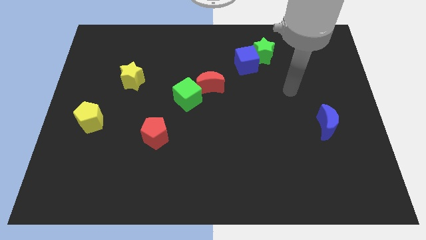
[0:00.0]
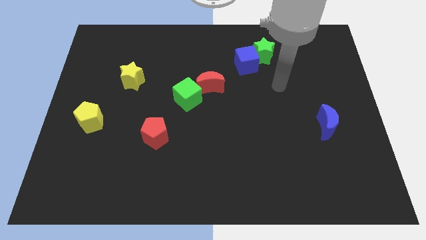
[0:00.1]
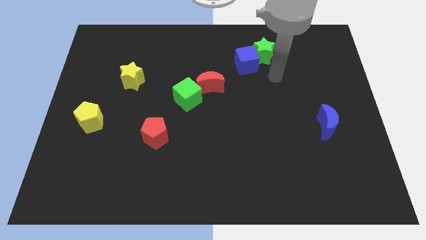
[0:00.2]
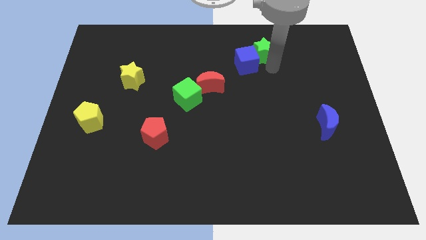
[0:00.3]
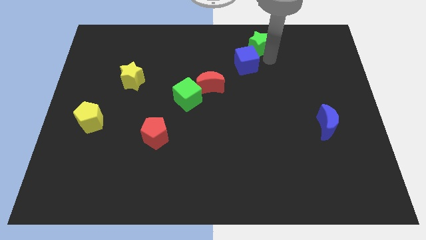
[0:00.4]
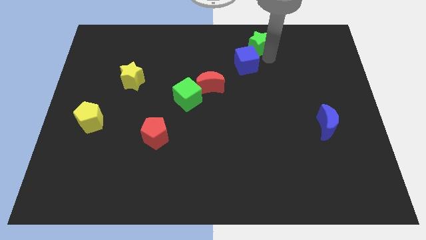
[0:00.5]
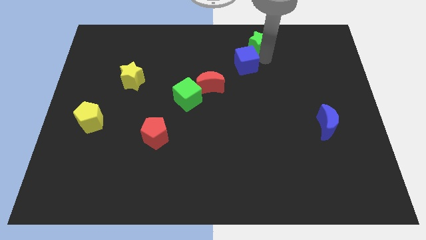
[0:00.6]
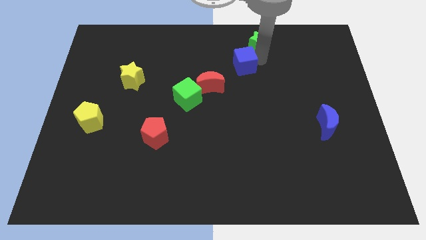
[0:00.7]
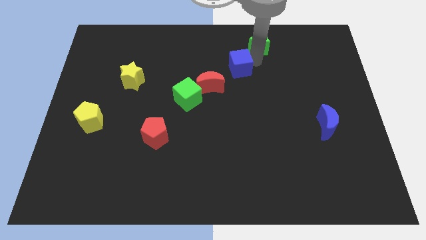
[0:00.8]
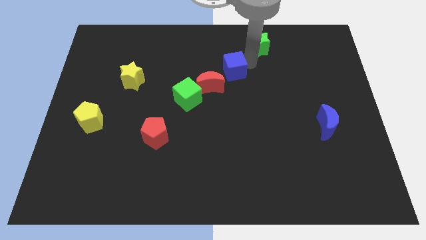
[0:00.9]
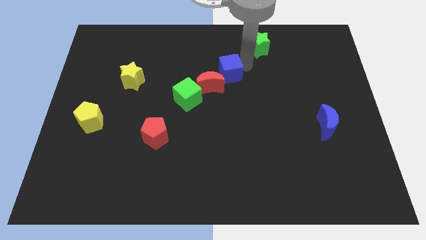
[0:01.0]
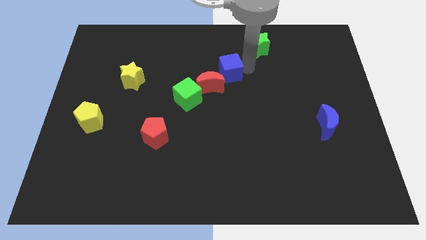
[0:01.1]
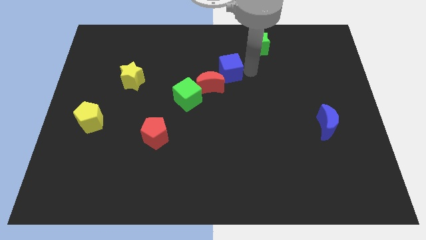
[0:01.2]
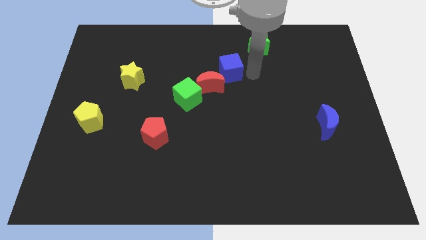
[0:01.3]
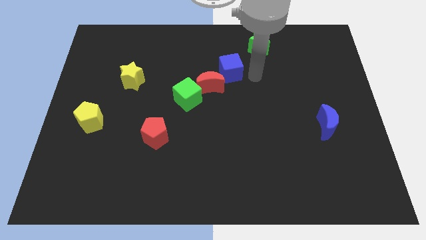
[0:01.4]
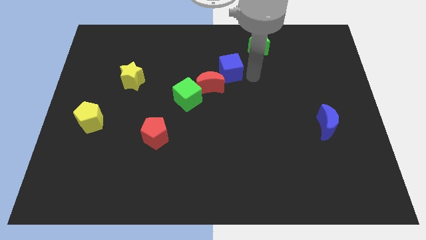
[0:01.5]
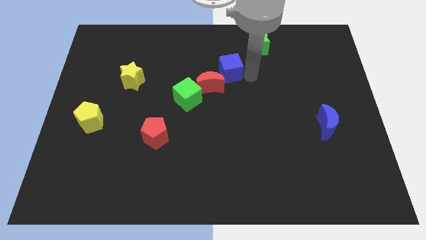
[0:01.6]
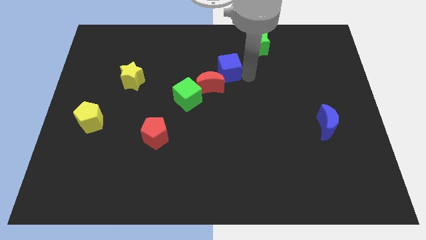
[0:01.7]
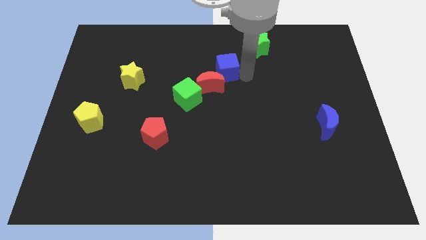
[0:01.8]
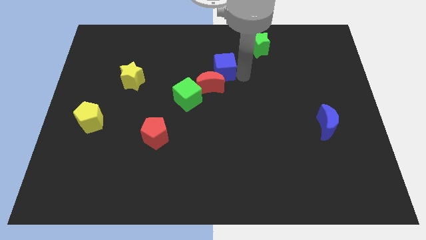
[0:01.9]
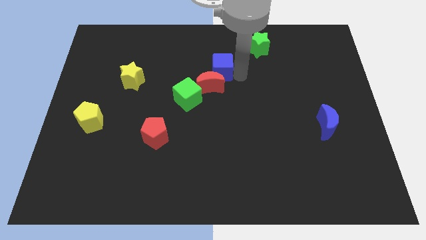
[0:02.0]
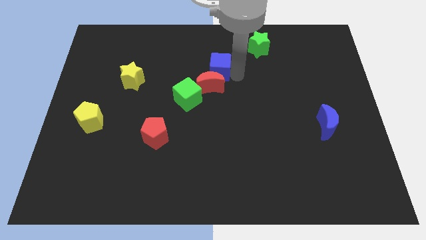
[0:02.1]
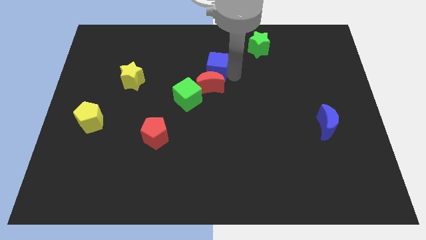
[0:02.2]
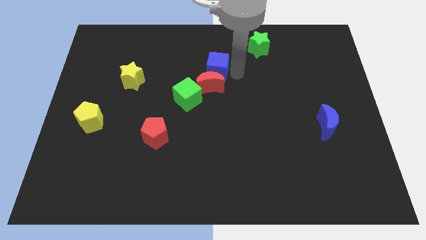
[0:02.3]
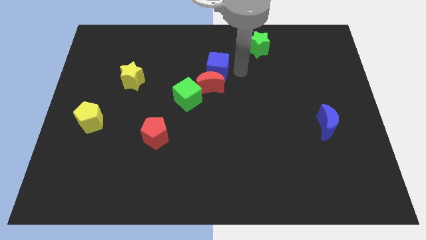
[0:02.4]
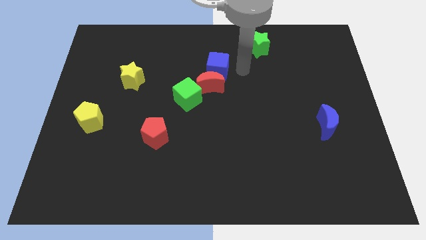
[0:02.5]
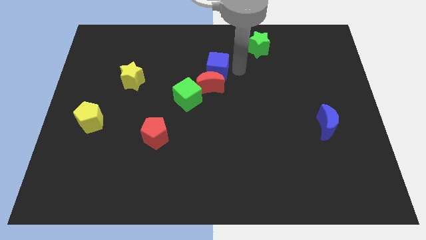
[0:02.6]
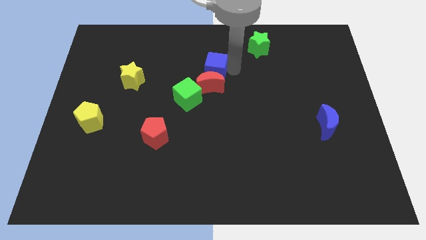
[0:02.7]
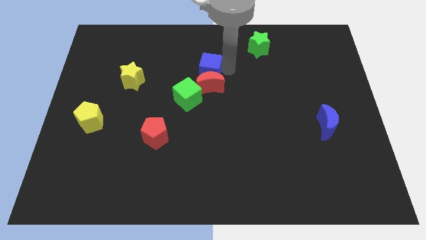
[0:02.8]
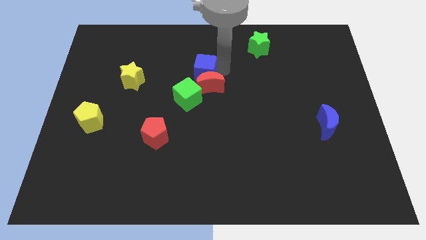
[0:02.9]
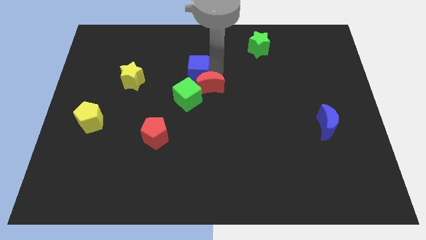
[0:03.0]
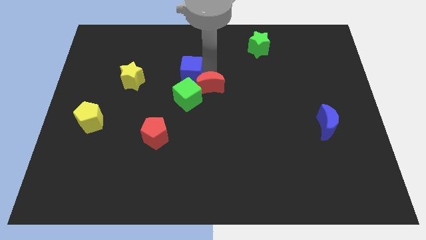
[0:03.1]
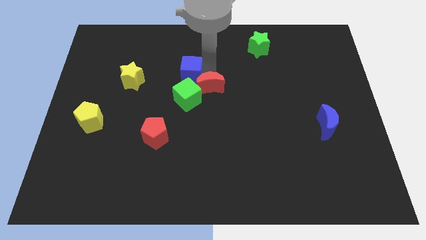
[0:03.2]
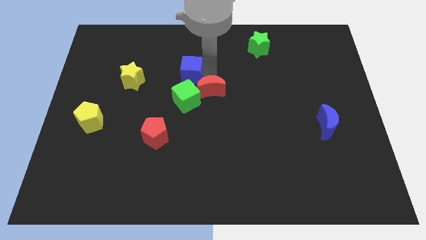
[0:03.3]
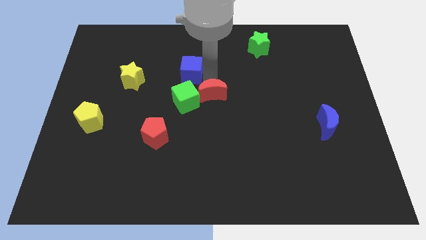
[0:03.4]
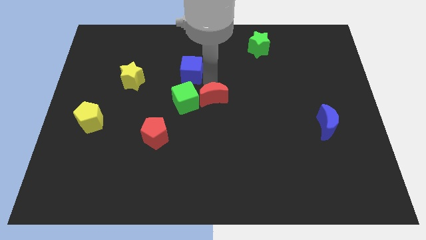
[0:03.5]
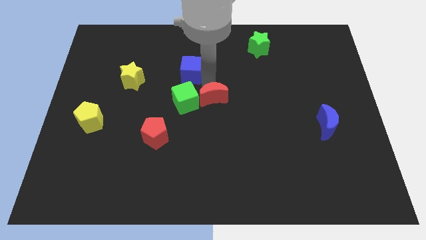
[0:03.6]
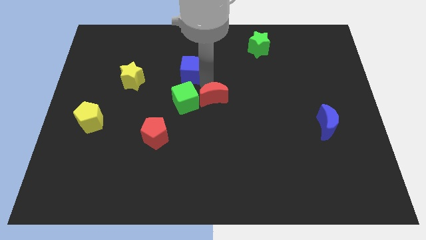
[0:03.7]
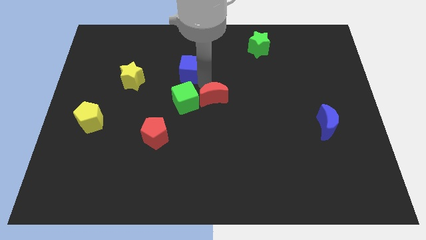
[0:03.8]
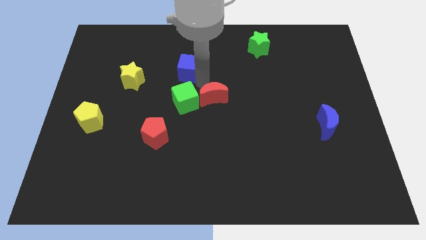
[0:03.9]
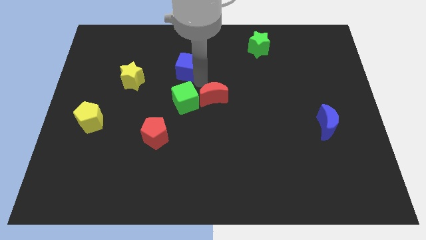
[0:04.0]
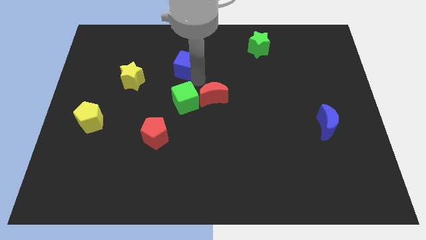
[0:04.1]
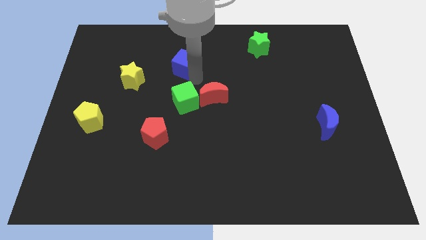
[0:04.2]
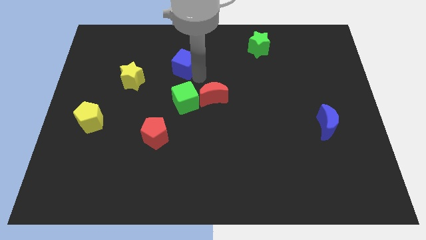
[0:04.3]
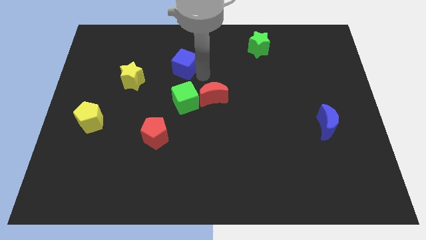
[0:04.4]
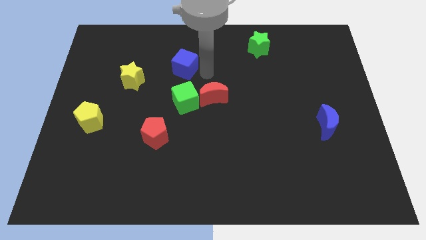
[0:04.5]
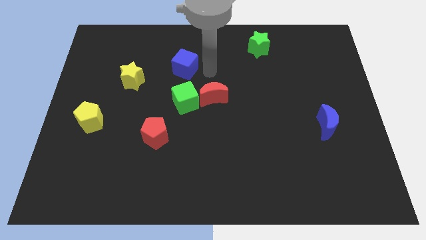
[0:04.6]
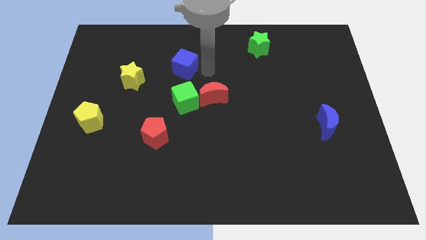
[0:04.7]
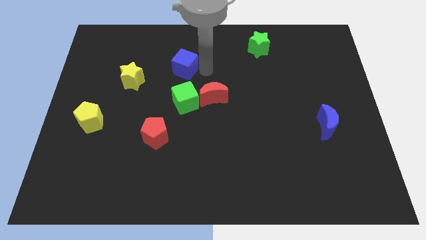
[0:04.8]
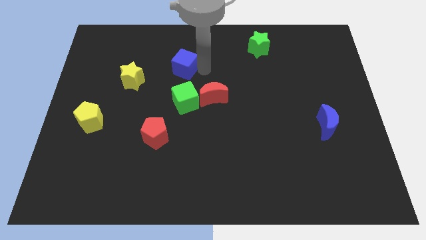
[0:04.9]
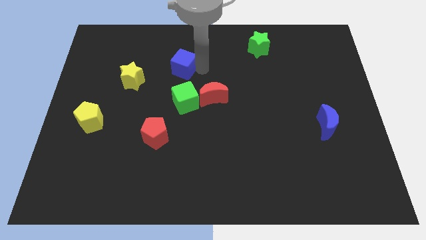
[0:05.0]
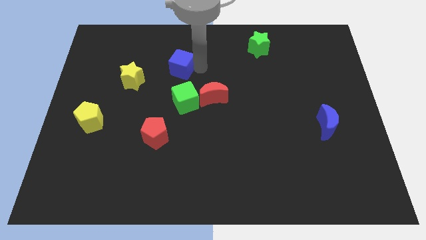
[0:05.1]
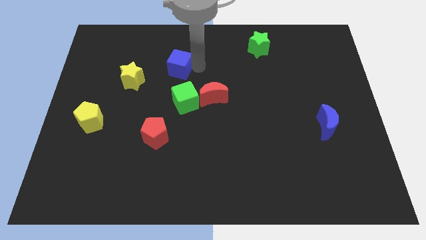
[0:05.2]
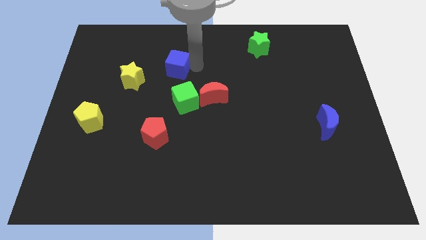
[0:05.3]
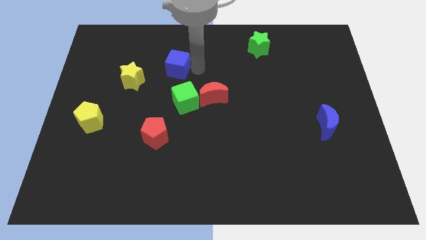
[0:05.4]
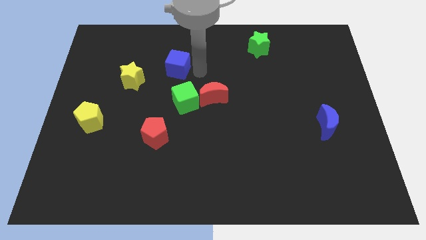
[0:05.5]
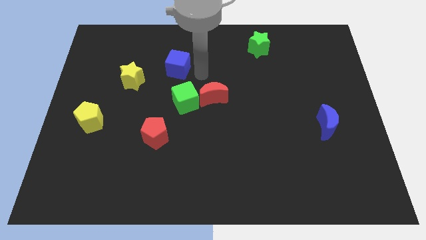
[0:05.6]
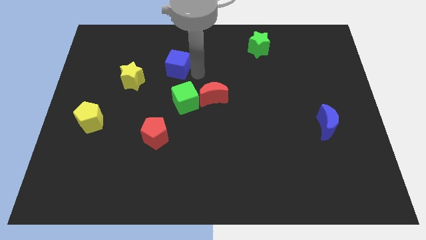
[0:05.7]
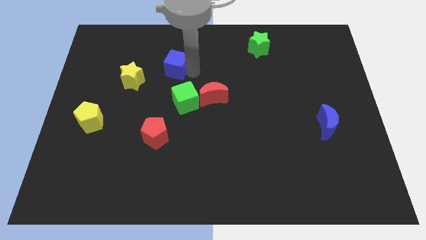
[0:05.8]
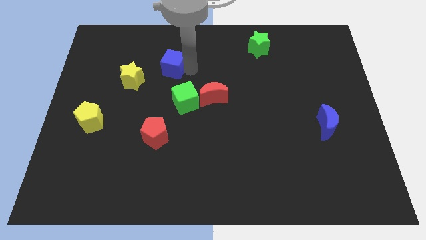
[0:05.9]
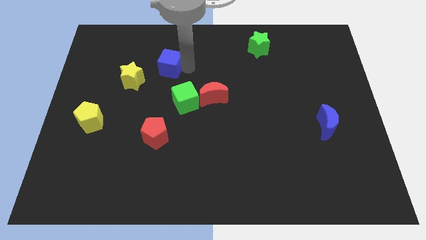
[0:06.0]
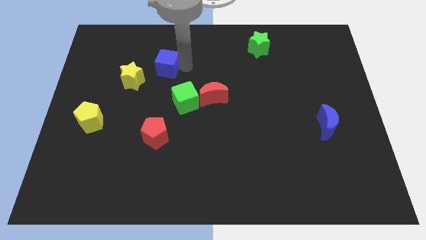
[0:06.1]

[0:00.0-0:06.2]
push the blue cube left

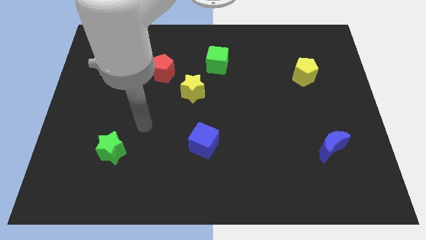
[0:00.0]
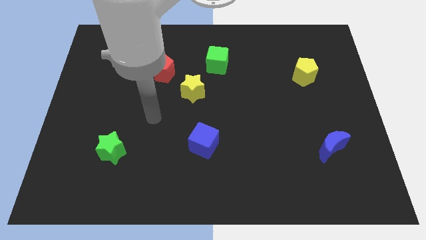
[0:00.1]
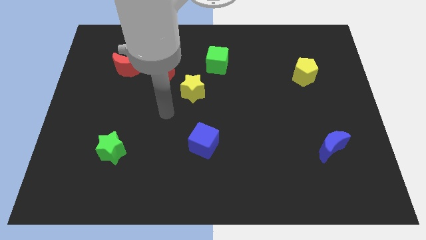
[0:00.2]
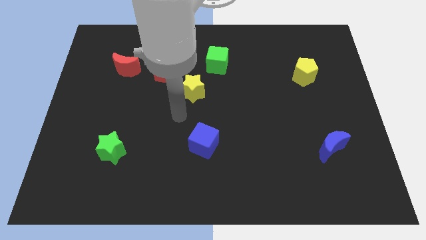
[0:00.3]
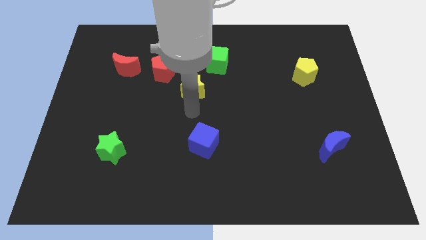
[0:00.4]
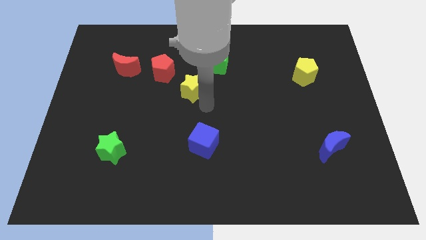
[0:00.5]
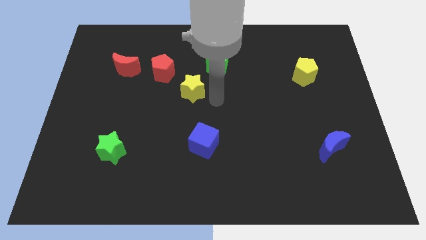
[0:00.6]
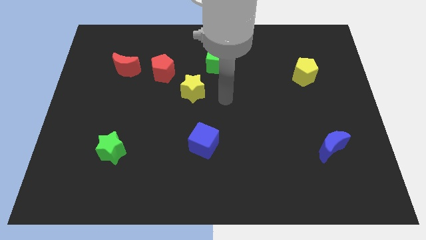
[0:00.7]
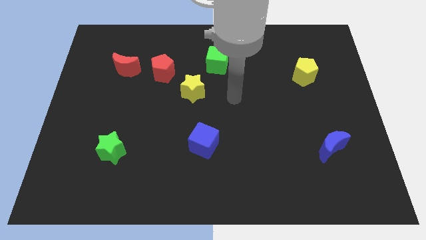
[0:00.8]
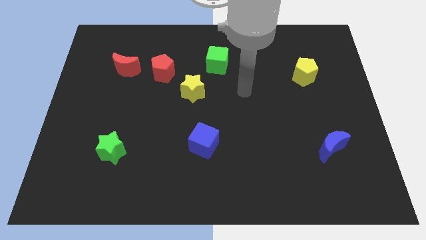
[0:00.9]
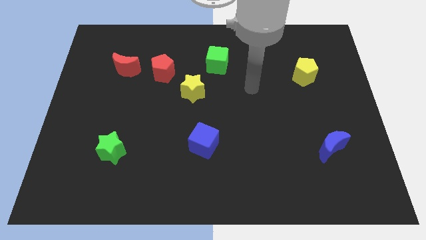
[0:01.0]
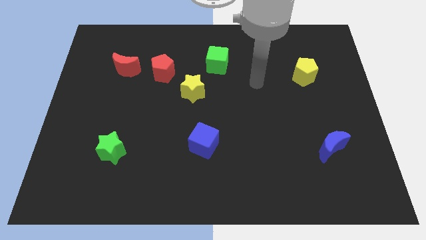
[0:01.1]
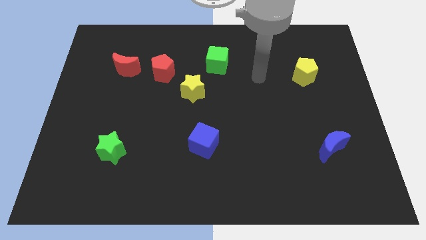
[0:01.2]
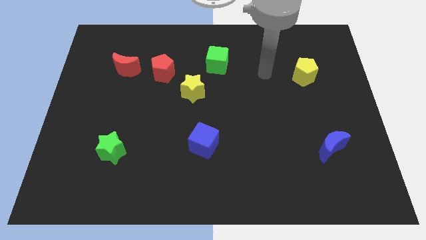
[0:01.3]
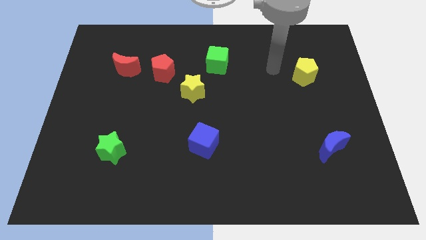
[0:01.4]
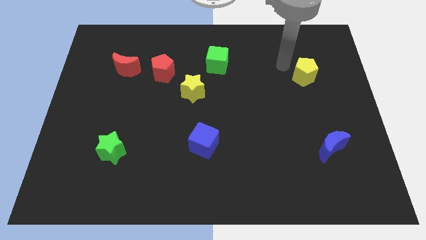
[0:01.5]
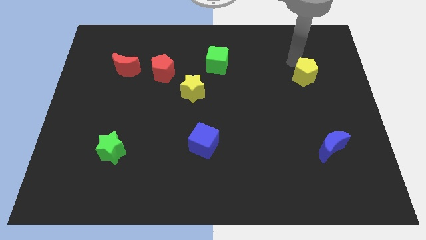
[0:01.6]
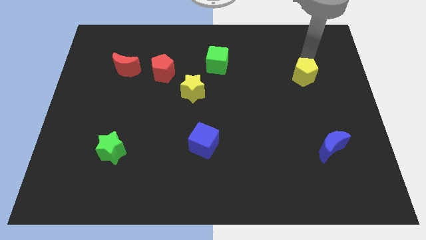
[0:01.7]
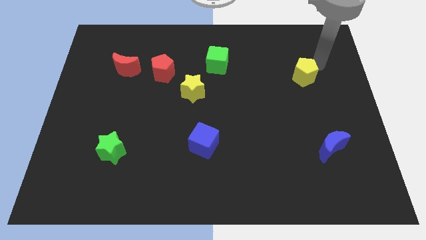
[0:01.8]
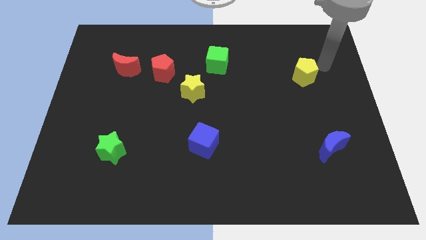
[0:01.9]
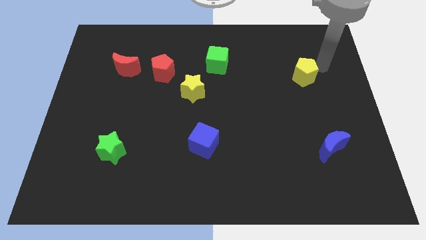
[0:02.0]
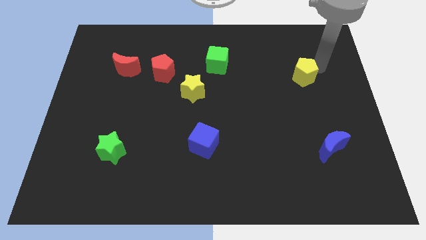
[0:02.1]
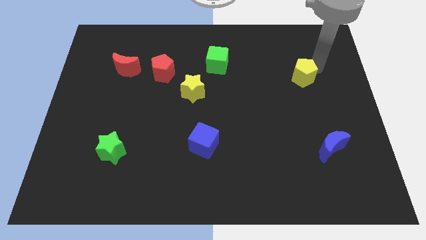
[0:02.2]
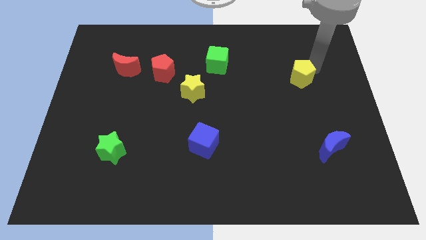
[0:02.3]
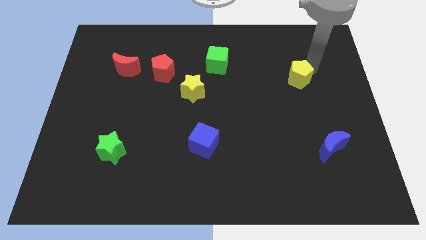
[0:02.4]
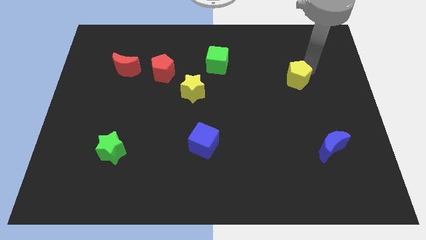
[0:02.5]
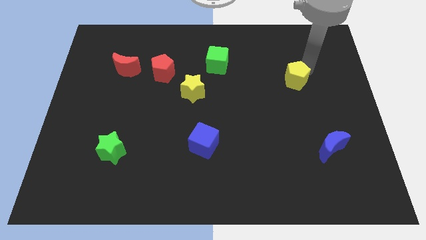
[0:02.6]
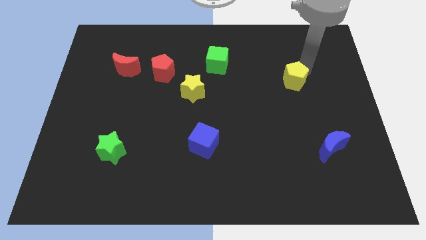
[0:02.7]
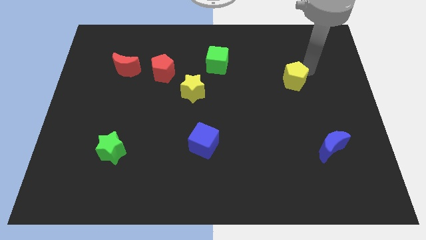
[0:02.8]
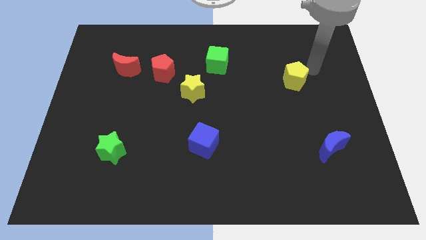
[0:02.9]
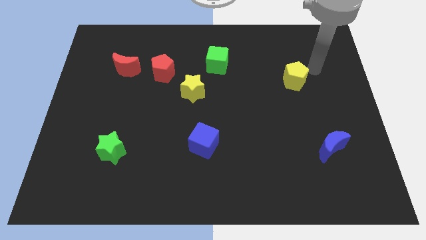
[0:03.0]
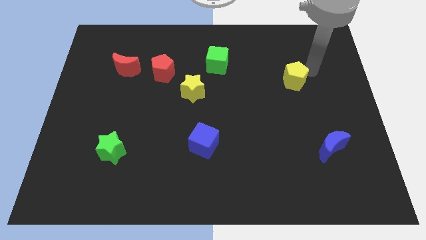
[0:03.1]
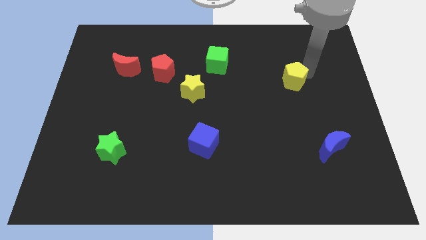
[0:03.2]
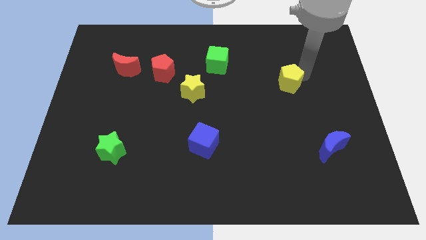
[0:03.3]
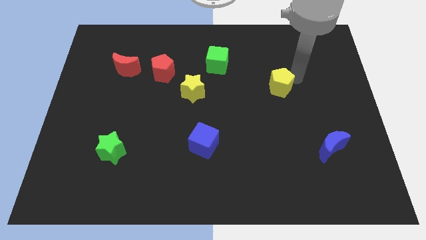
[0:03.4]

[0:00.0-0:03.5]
push the yellow pentagon a bit downwards and then left
